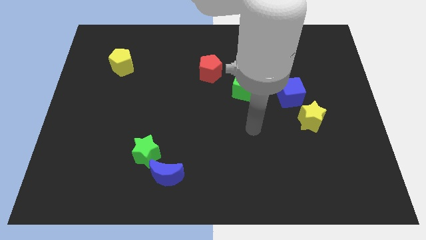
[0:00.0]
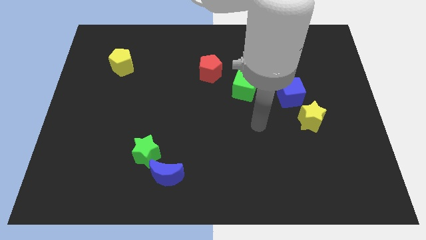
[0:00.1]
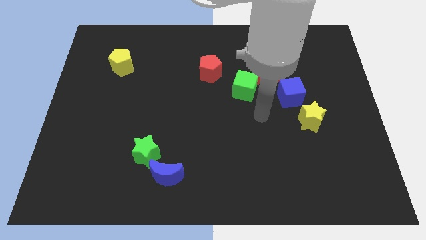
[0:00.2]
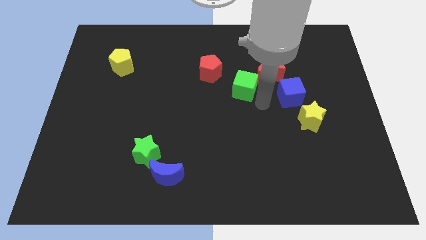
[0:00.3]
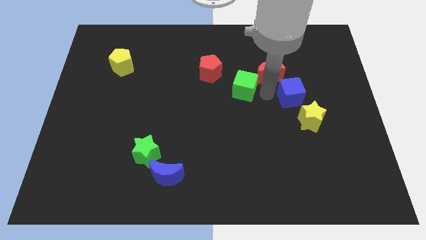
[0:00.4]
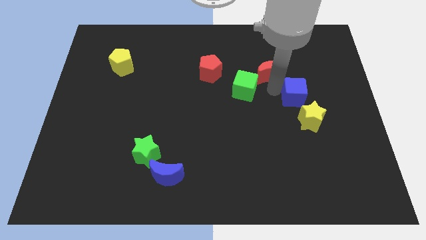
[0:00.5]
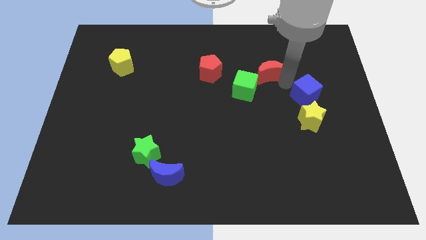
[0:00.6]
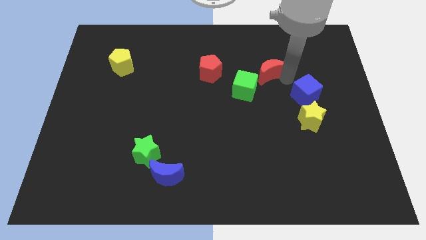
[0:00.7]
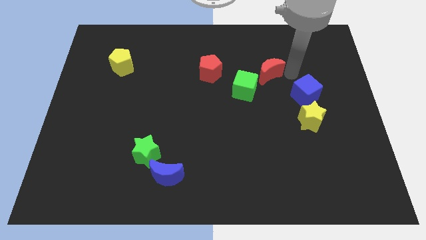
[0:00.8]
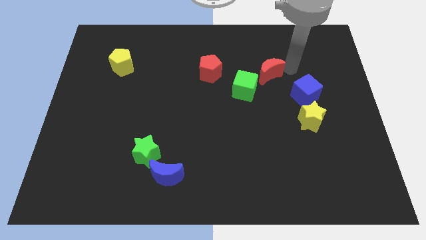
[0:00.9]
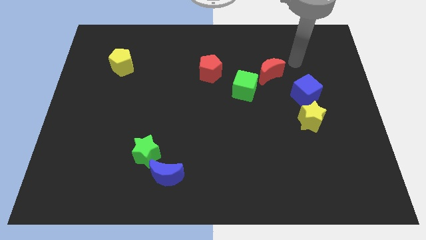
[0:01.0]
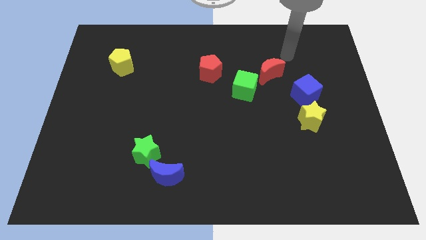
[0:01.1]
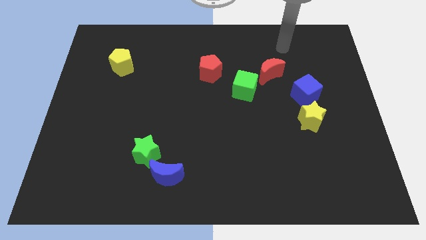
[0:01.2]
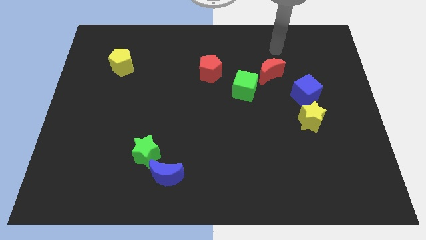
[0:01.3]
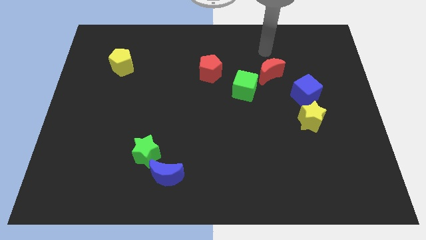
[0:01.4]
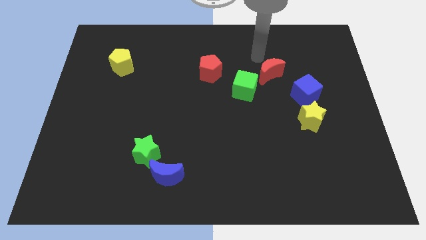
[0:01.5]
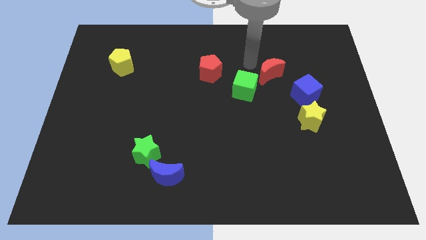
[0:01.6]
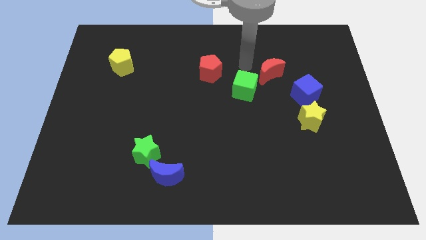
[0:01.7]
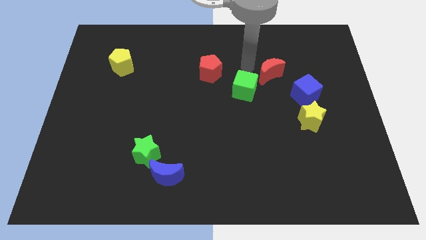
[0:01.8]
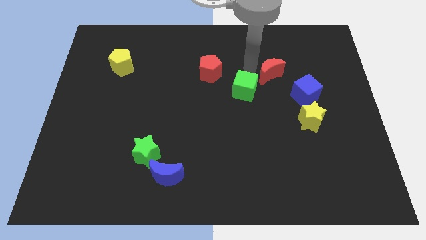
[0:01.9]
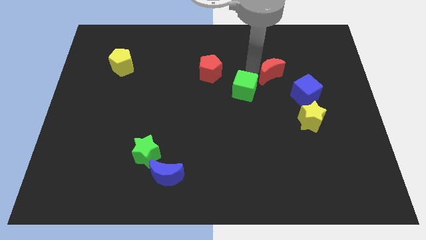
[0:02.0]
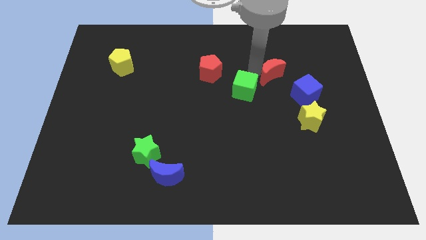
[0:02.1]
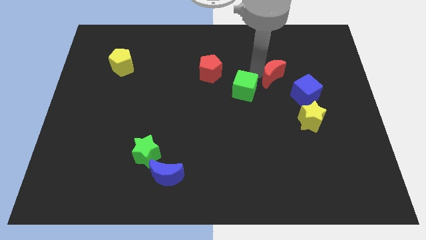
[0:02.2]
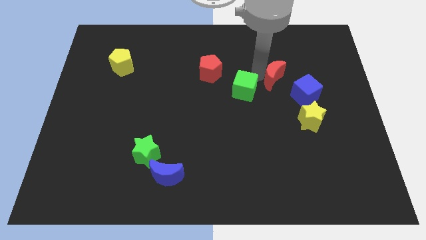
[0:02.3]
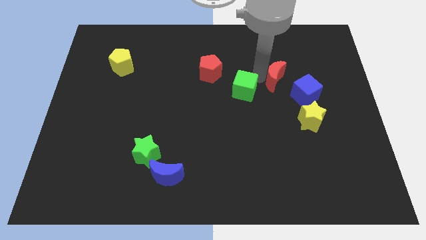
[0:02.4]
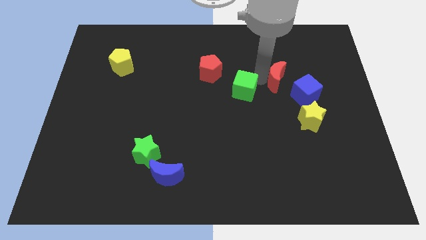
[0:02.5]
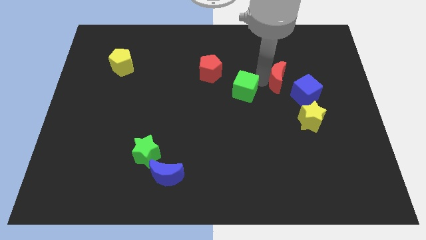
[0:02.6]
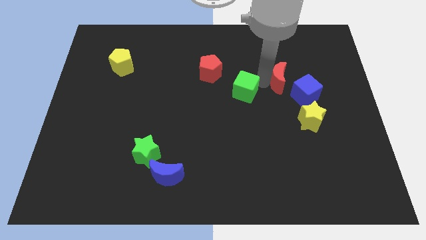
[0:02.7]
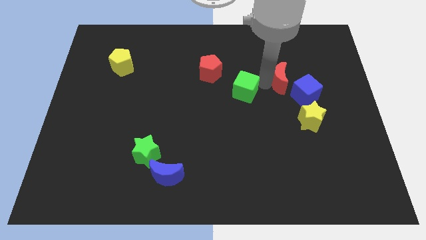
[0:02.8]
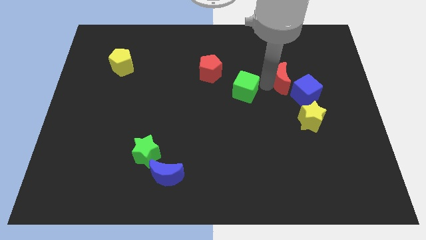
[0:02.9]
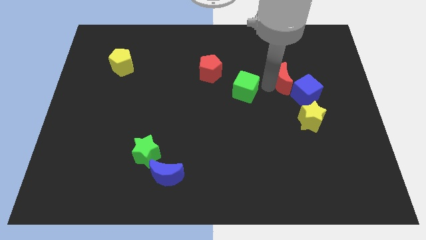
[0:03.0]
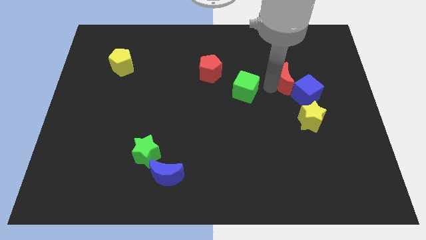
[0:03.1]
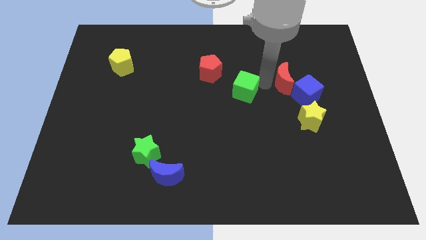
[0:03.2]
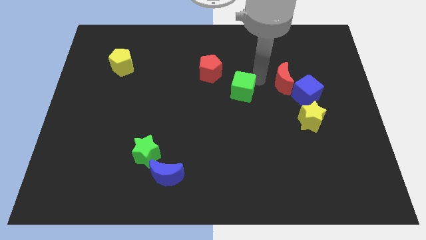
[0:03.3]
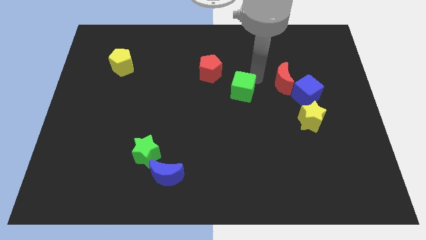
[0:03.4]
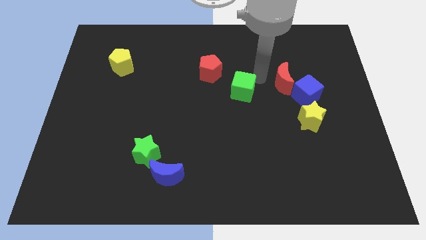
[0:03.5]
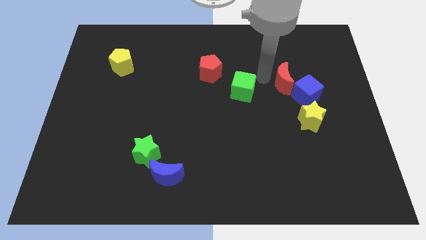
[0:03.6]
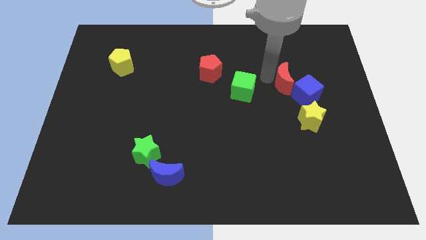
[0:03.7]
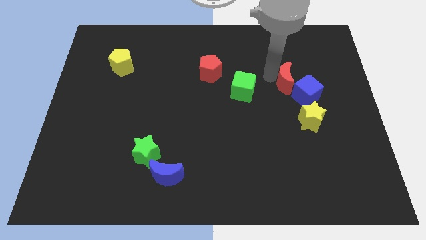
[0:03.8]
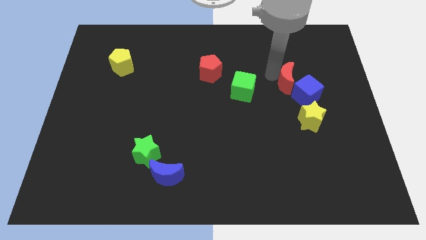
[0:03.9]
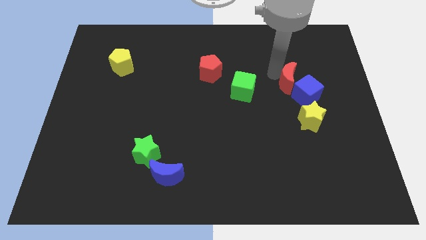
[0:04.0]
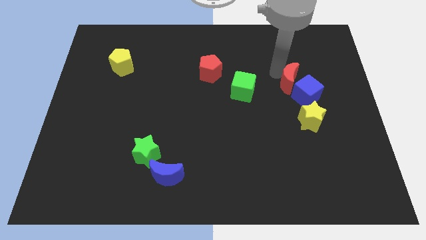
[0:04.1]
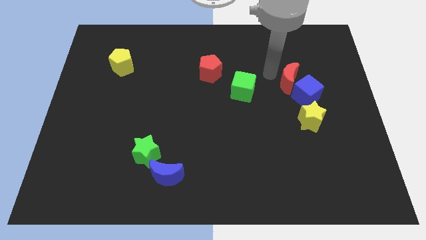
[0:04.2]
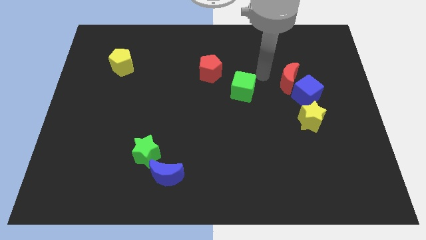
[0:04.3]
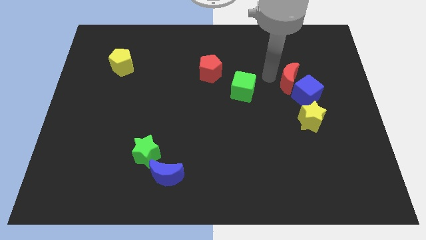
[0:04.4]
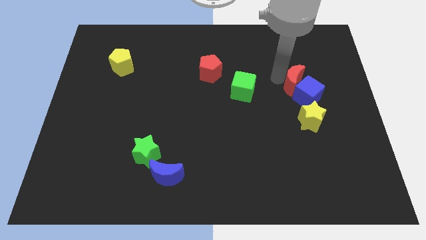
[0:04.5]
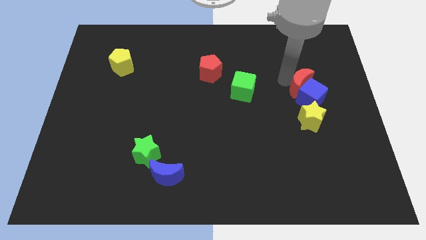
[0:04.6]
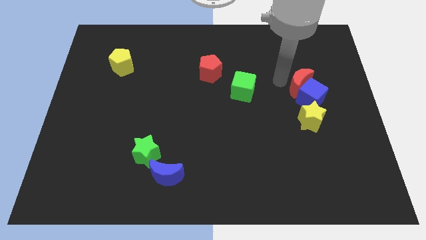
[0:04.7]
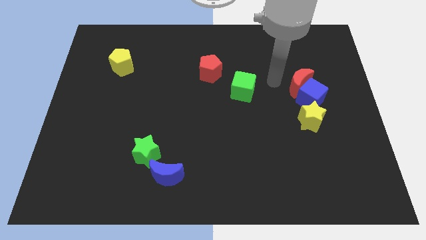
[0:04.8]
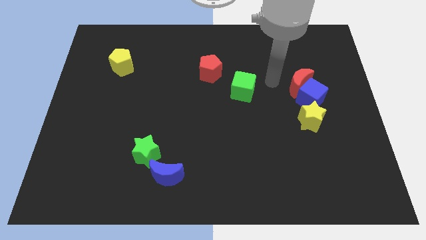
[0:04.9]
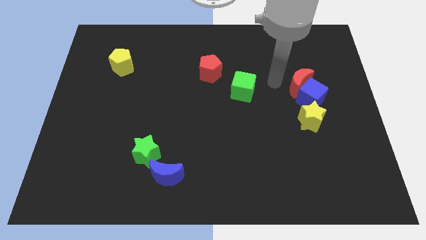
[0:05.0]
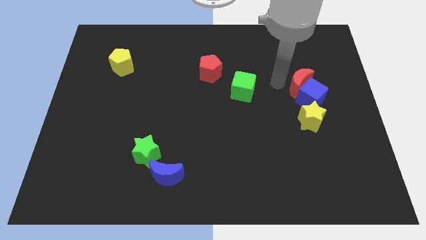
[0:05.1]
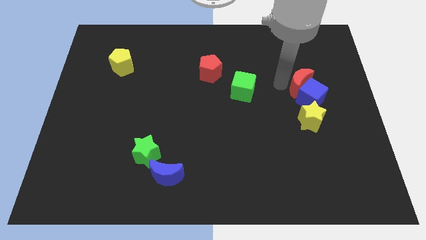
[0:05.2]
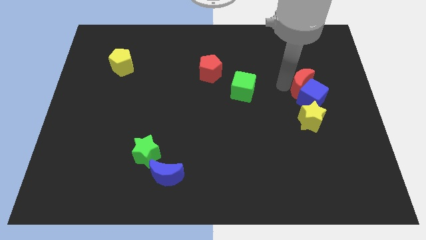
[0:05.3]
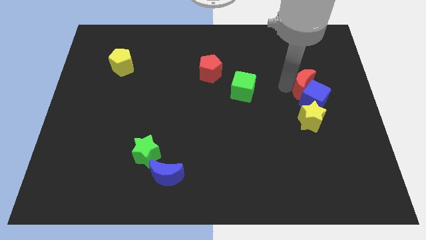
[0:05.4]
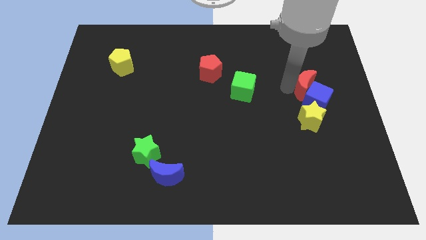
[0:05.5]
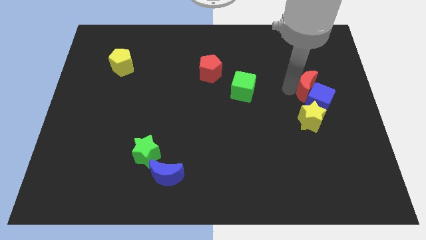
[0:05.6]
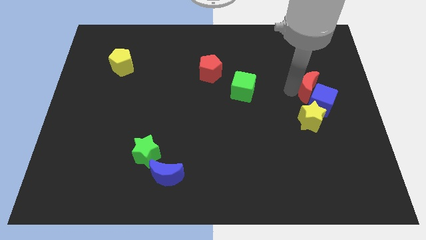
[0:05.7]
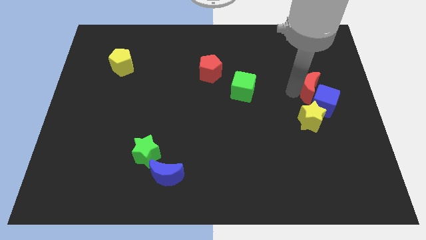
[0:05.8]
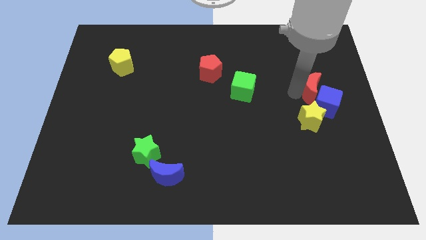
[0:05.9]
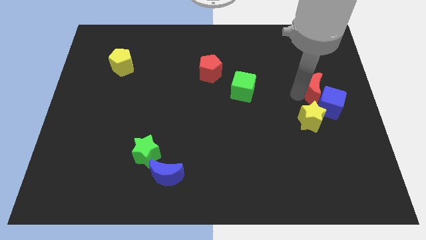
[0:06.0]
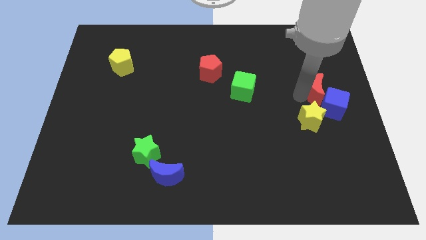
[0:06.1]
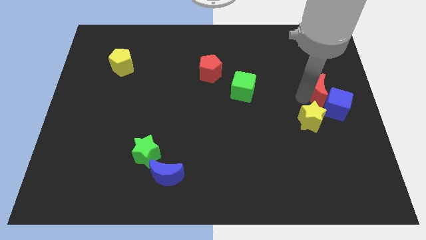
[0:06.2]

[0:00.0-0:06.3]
slide the red moon to the center right

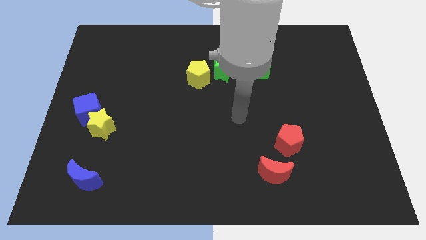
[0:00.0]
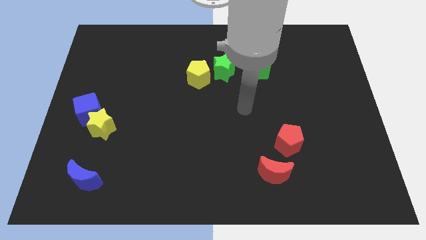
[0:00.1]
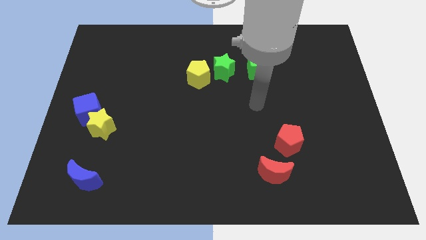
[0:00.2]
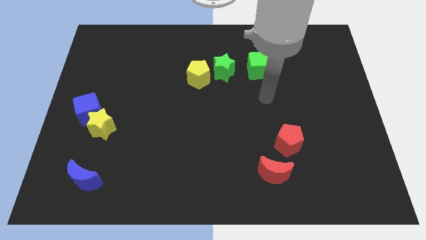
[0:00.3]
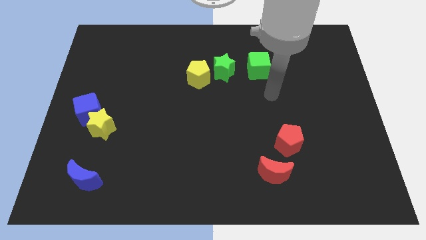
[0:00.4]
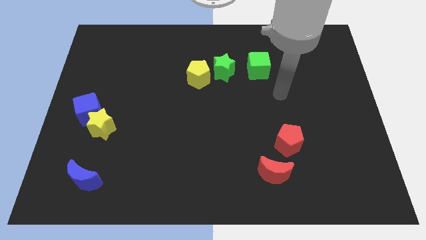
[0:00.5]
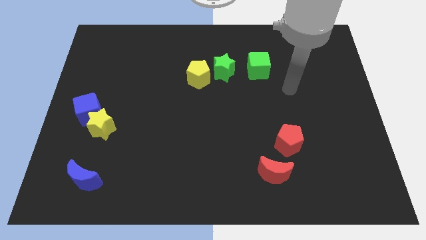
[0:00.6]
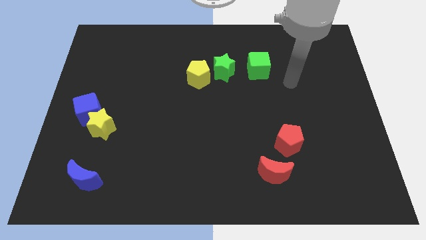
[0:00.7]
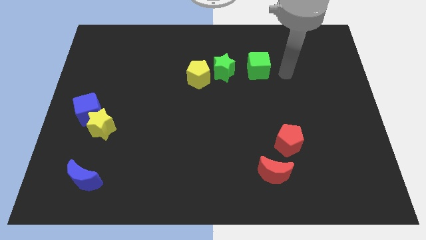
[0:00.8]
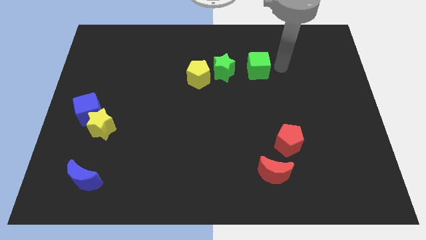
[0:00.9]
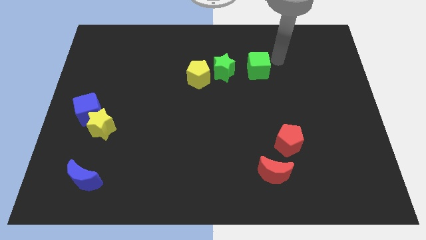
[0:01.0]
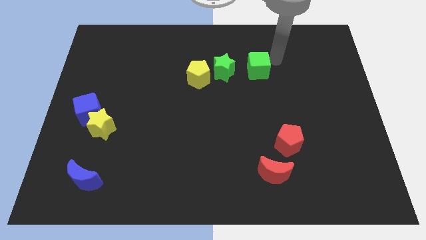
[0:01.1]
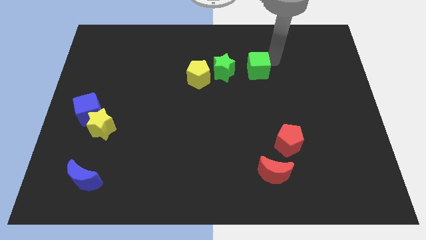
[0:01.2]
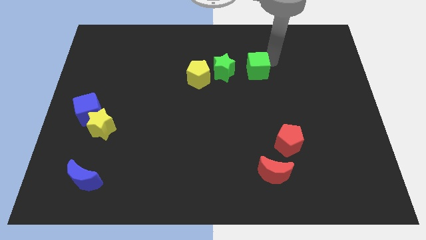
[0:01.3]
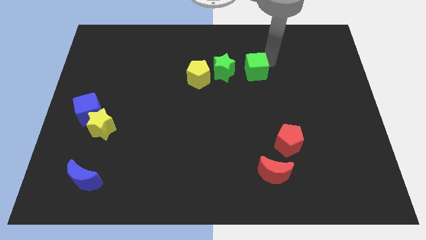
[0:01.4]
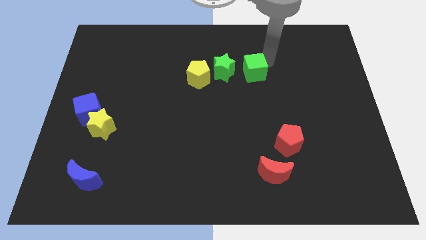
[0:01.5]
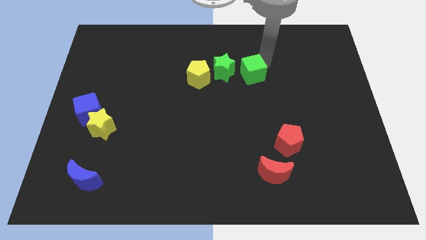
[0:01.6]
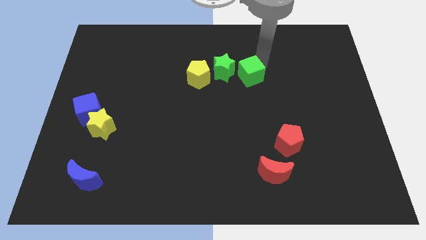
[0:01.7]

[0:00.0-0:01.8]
move the green cube to the middle of the board
